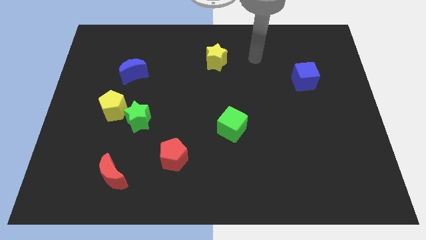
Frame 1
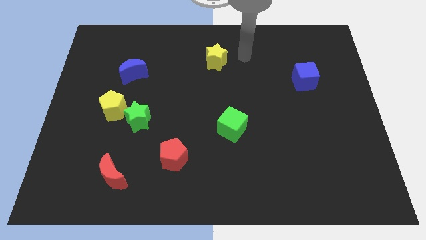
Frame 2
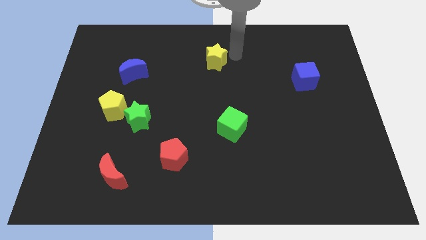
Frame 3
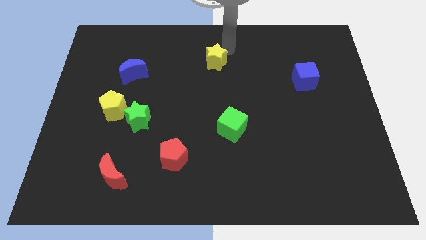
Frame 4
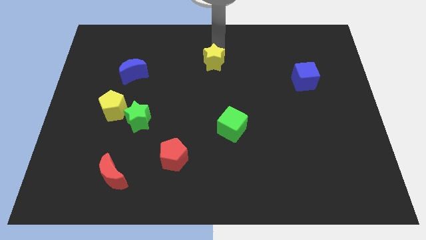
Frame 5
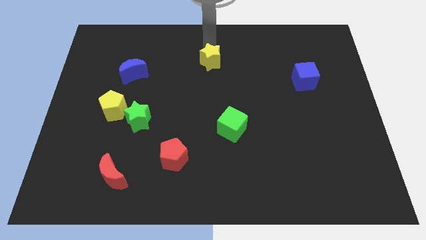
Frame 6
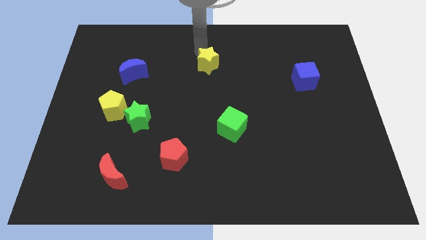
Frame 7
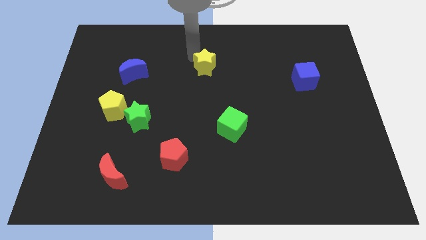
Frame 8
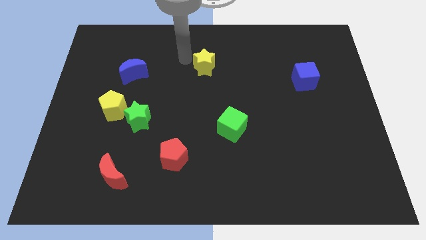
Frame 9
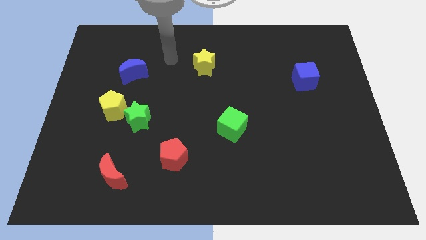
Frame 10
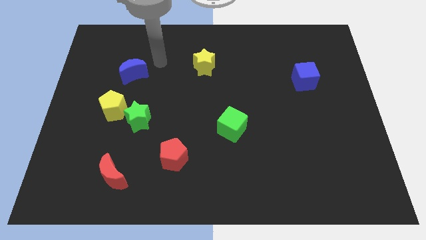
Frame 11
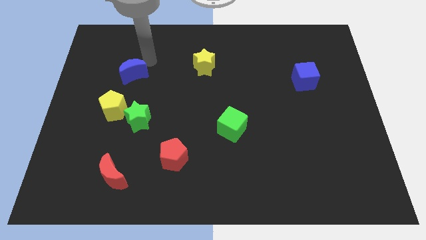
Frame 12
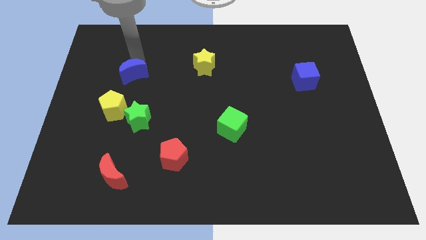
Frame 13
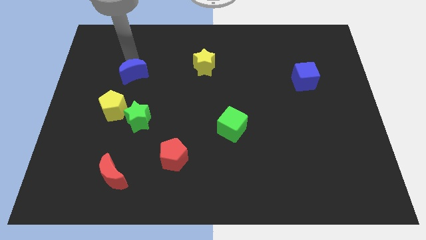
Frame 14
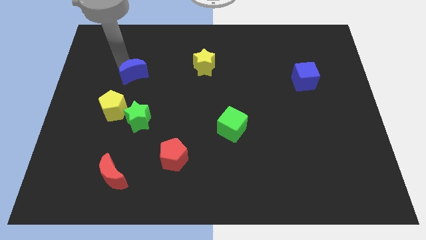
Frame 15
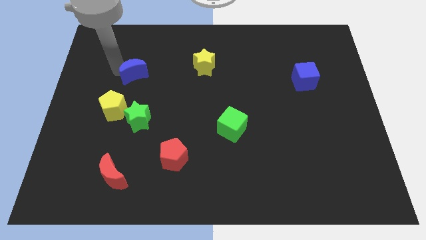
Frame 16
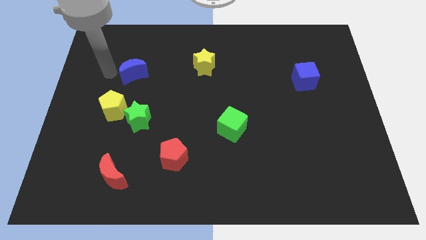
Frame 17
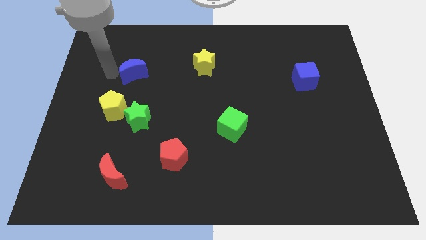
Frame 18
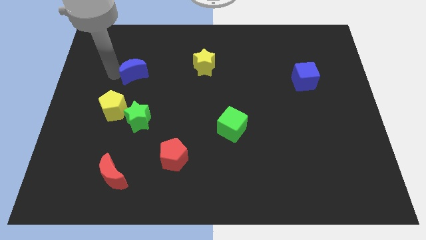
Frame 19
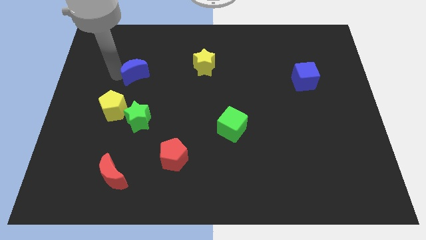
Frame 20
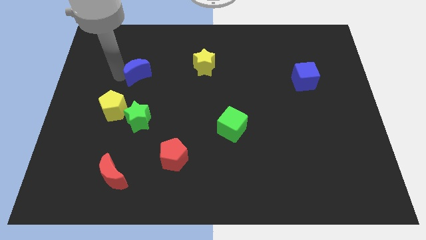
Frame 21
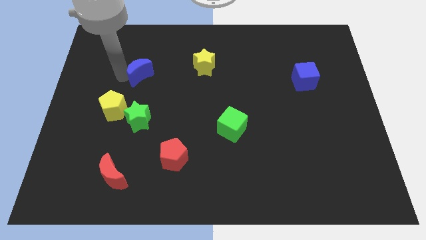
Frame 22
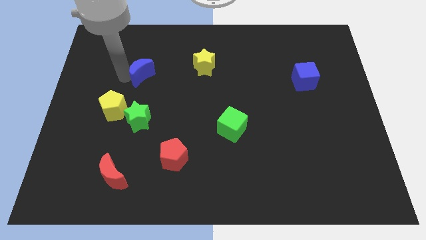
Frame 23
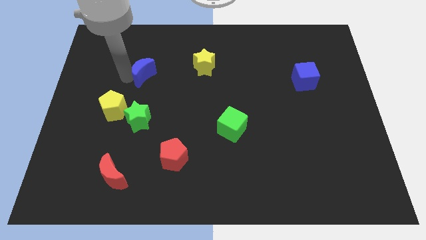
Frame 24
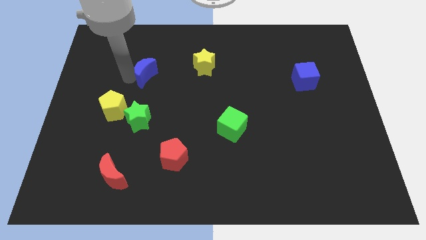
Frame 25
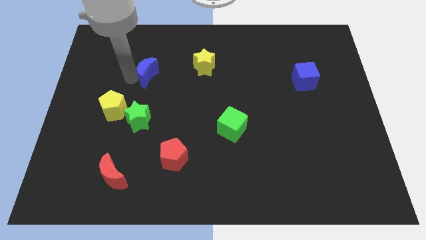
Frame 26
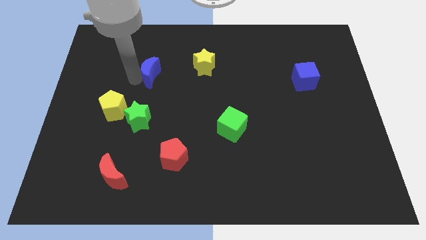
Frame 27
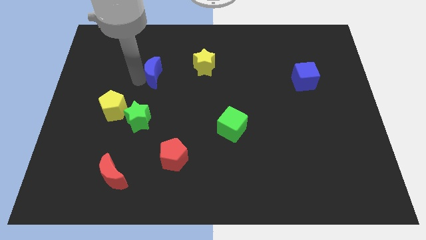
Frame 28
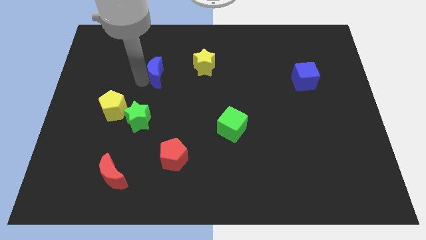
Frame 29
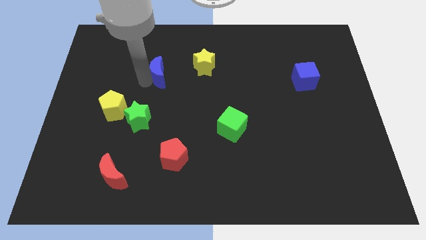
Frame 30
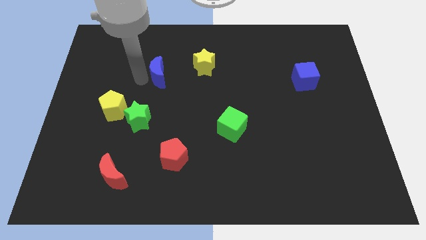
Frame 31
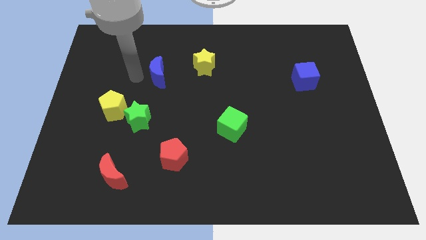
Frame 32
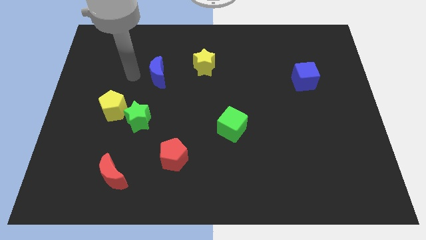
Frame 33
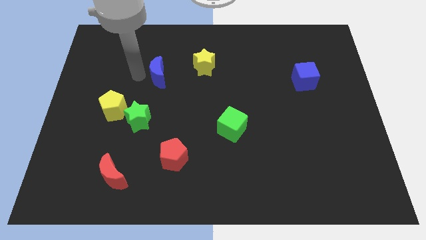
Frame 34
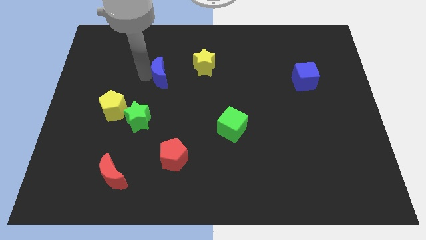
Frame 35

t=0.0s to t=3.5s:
push the blue moon a little to the right

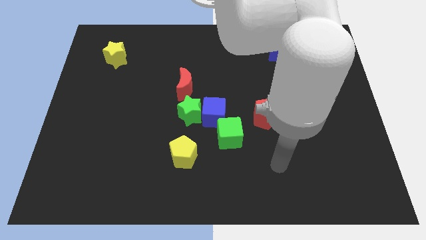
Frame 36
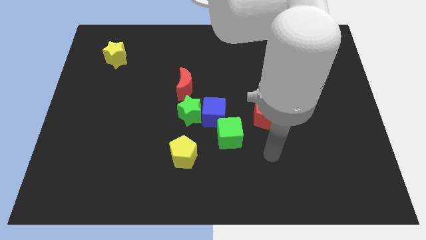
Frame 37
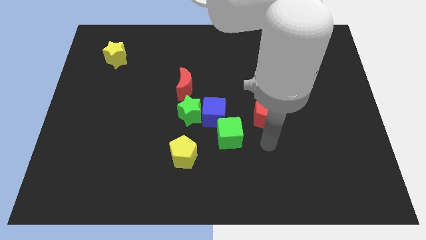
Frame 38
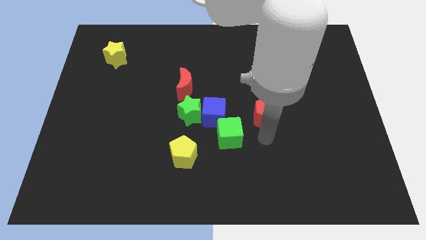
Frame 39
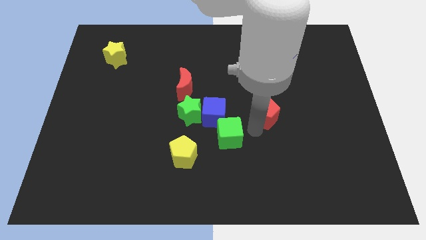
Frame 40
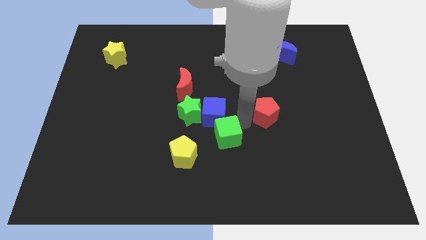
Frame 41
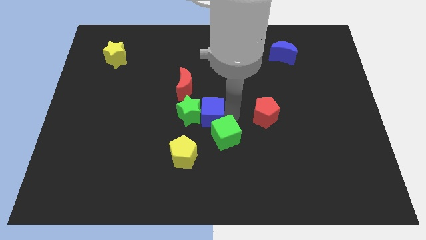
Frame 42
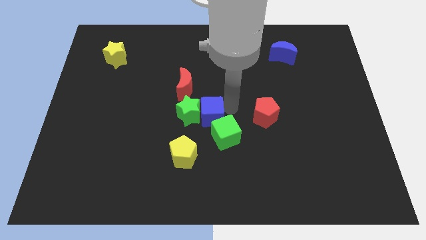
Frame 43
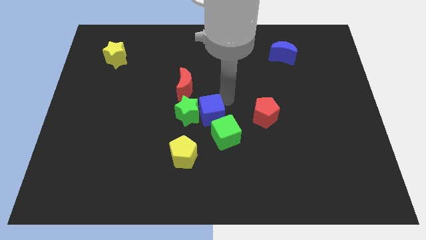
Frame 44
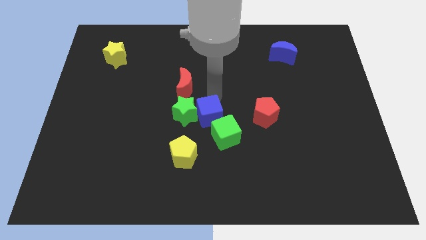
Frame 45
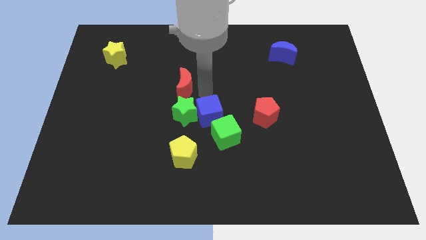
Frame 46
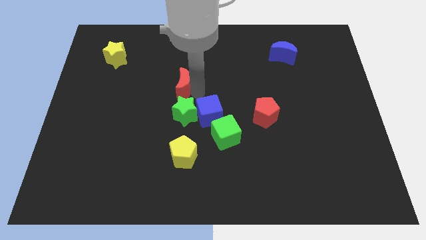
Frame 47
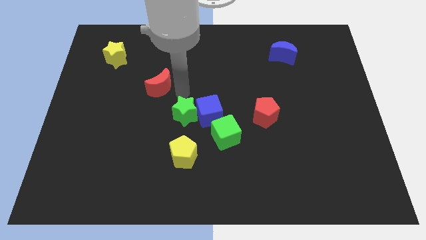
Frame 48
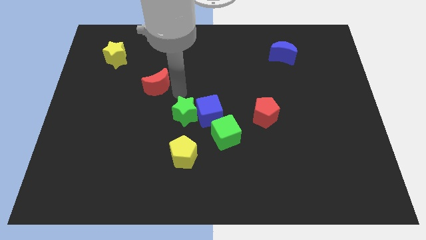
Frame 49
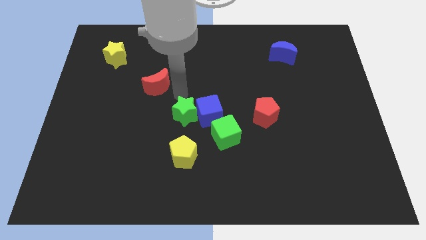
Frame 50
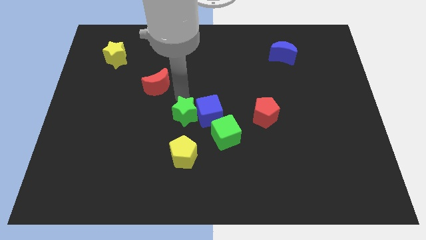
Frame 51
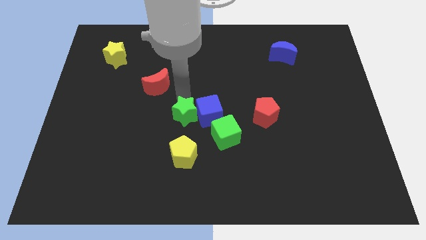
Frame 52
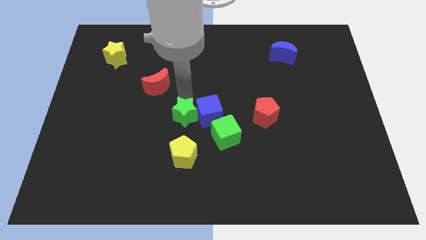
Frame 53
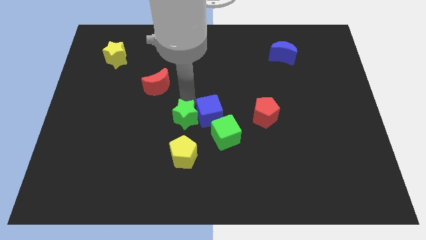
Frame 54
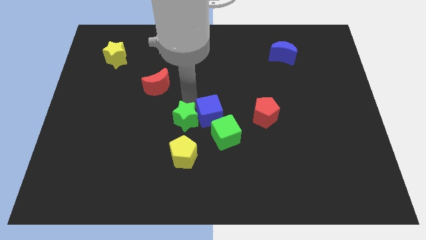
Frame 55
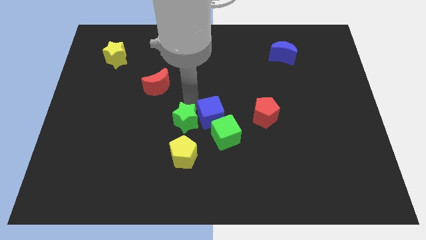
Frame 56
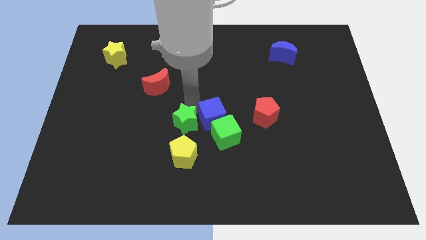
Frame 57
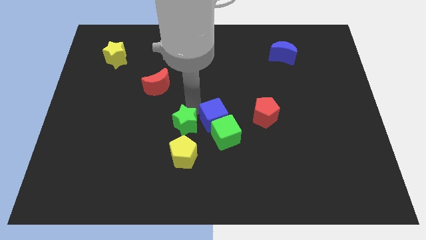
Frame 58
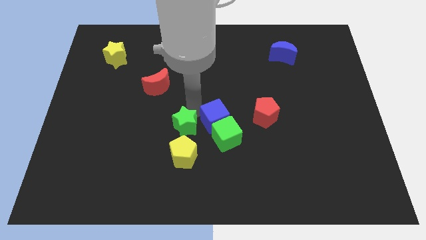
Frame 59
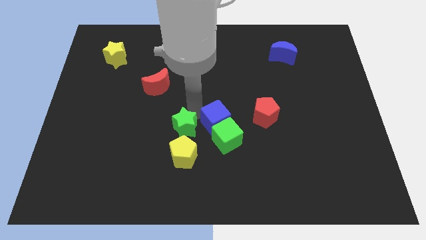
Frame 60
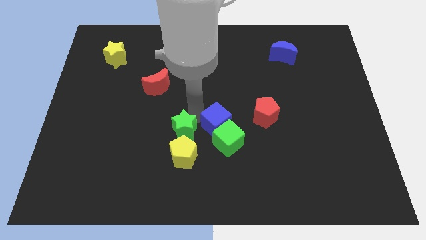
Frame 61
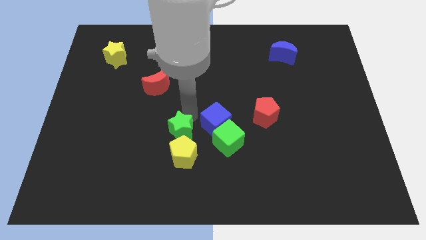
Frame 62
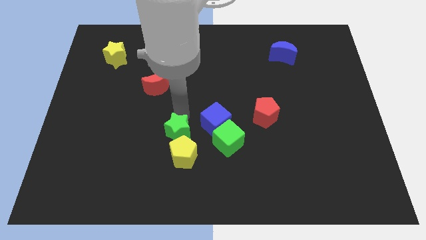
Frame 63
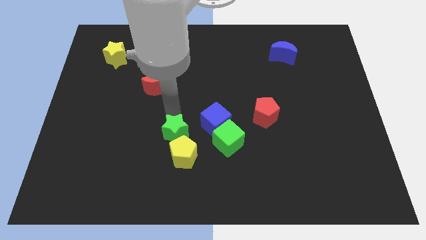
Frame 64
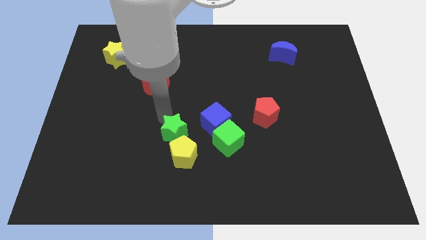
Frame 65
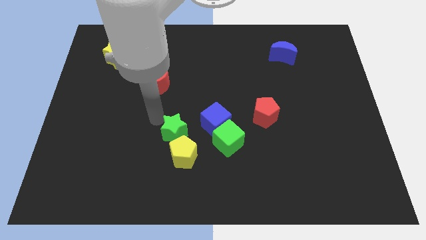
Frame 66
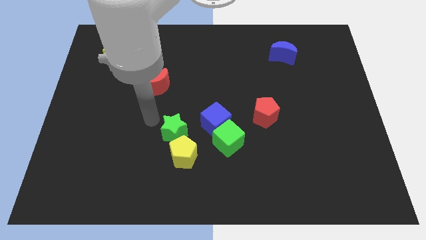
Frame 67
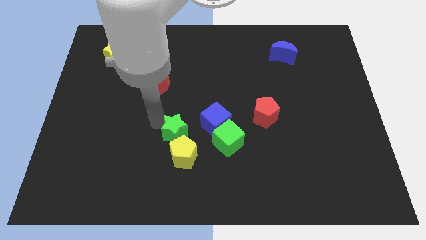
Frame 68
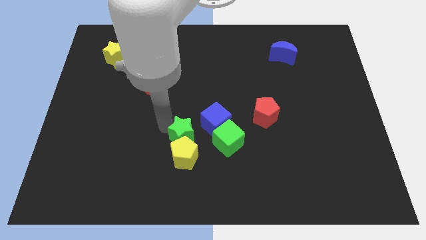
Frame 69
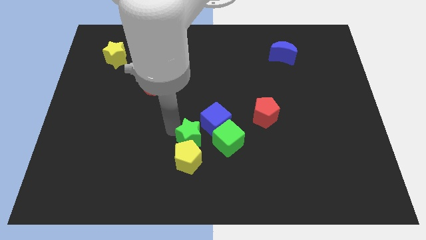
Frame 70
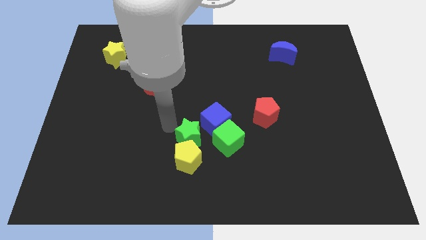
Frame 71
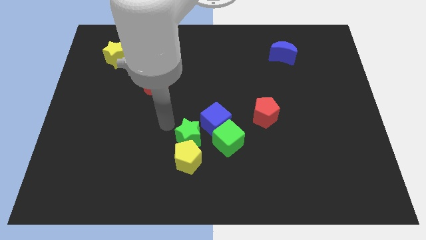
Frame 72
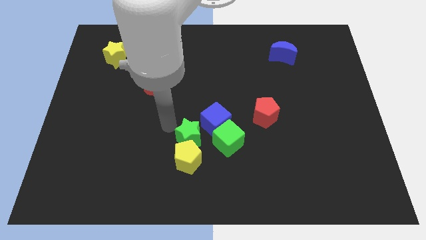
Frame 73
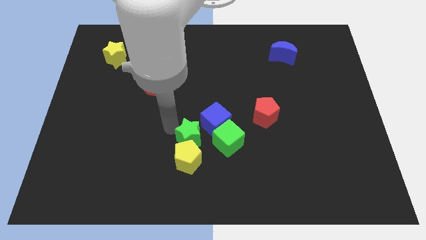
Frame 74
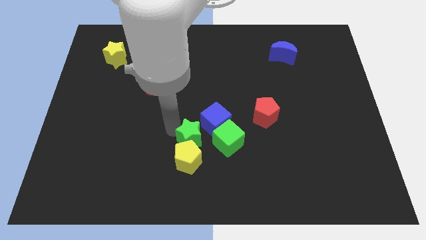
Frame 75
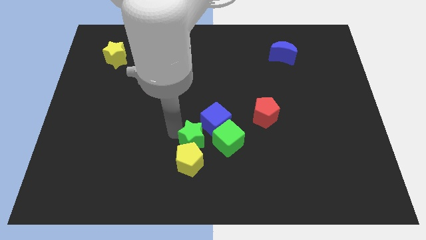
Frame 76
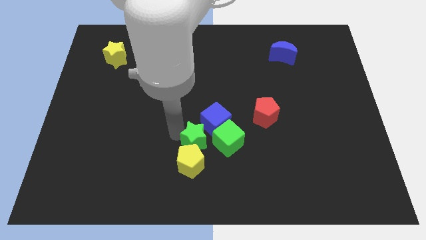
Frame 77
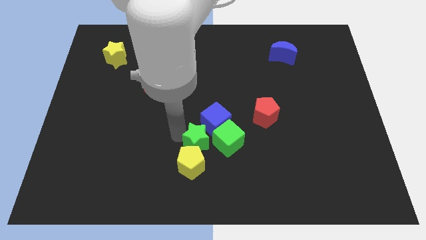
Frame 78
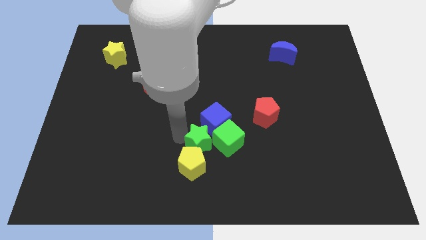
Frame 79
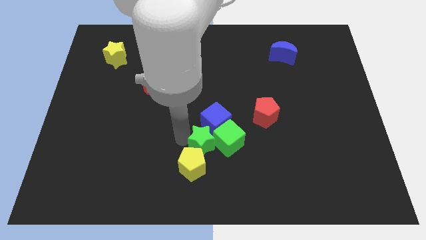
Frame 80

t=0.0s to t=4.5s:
slide the green star diagonally downwards and right slightly

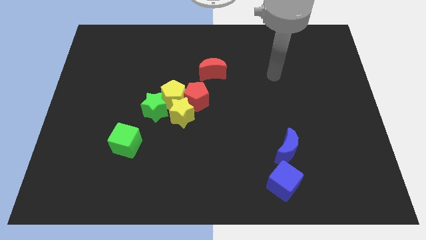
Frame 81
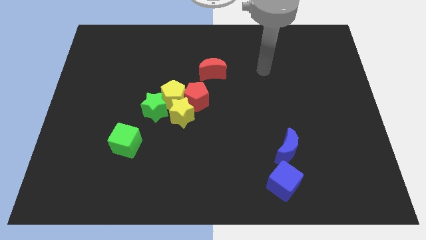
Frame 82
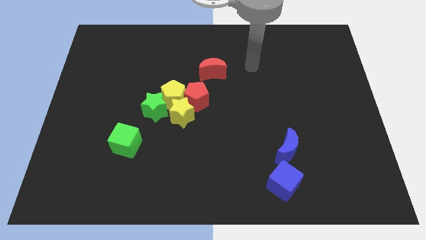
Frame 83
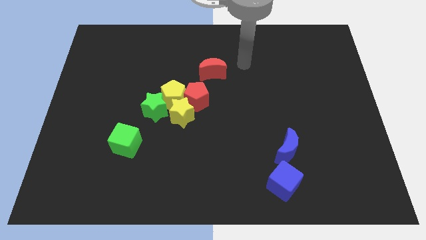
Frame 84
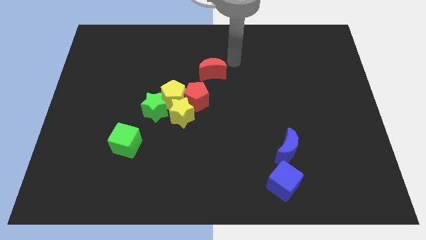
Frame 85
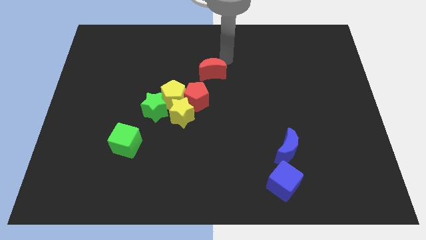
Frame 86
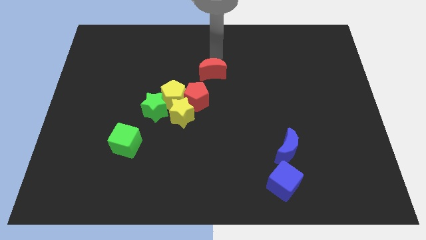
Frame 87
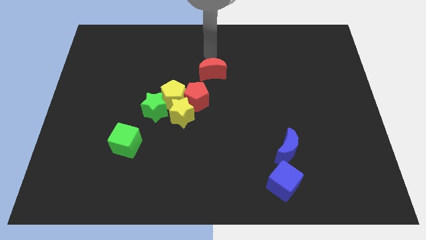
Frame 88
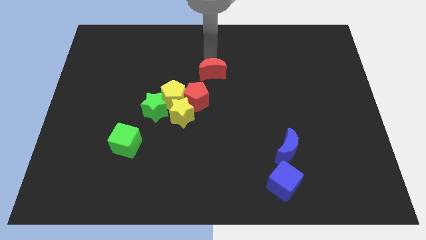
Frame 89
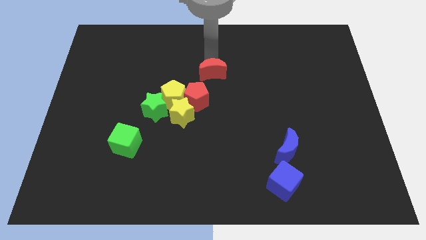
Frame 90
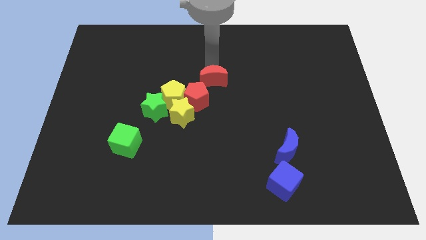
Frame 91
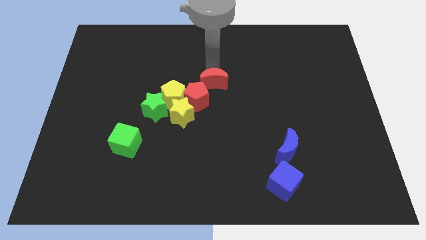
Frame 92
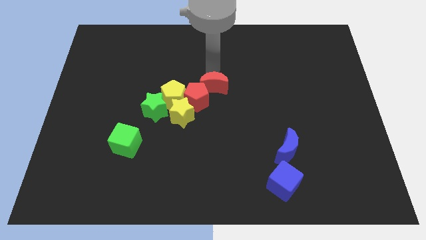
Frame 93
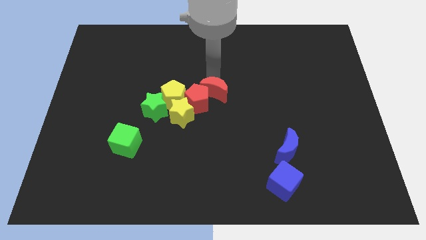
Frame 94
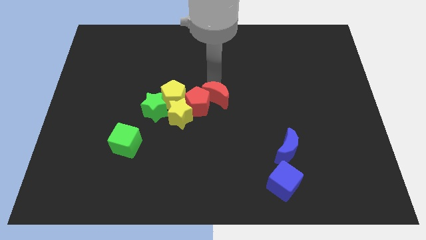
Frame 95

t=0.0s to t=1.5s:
slide the red moon a little downwards
